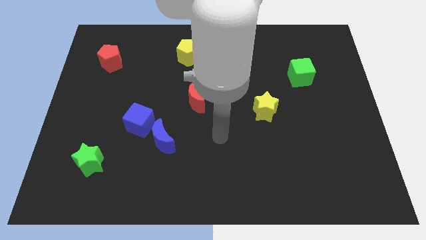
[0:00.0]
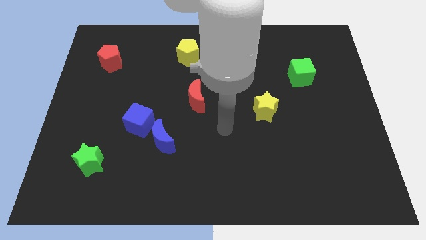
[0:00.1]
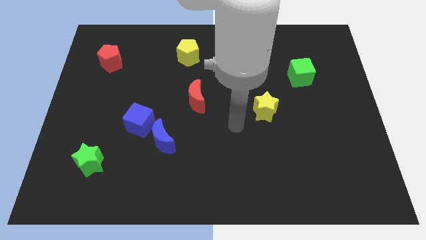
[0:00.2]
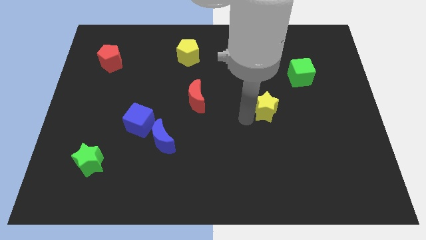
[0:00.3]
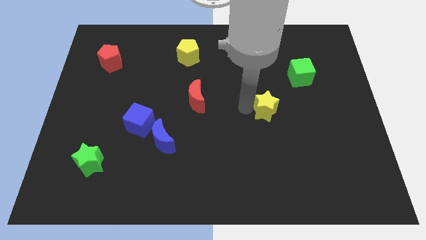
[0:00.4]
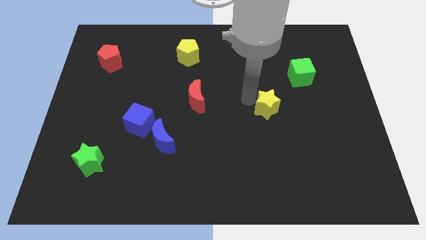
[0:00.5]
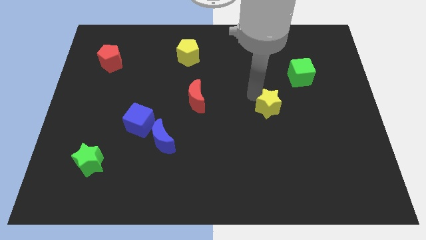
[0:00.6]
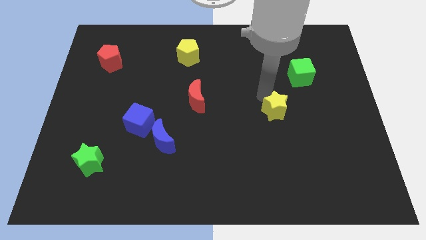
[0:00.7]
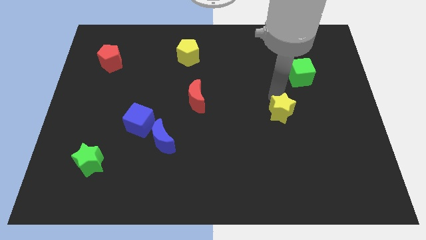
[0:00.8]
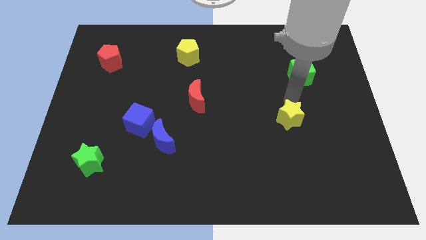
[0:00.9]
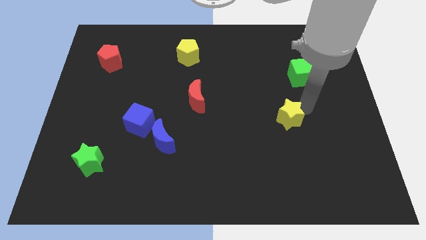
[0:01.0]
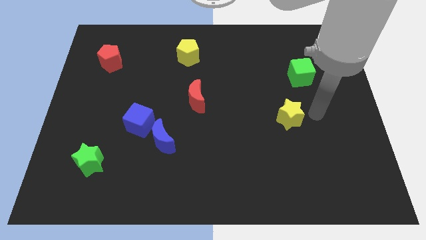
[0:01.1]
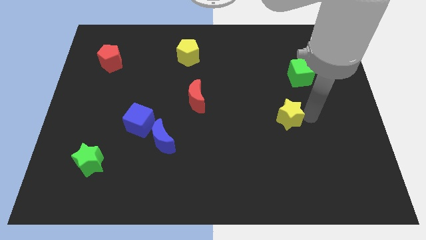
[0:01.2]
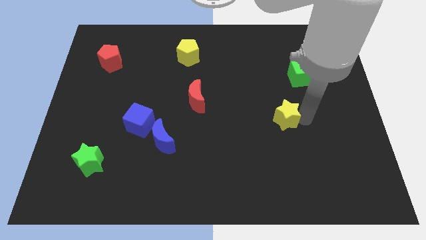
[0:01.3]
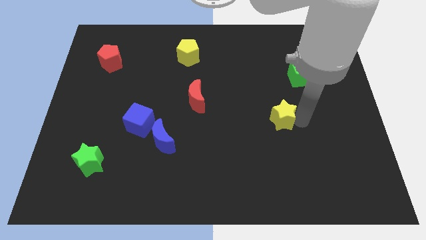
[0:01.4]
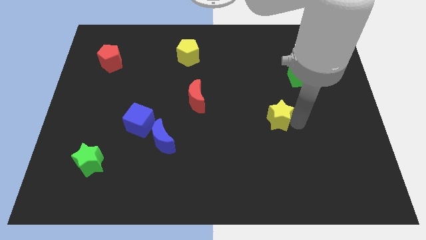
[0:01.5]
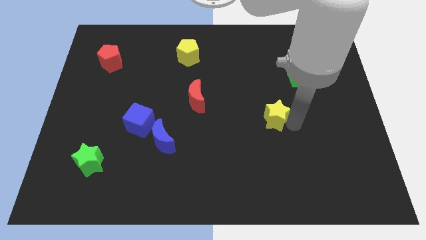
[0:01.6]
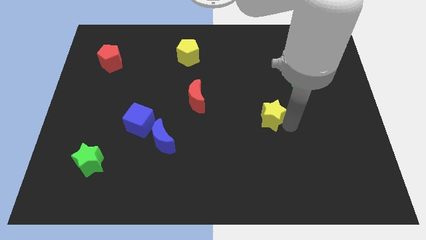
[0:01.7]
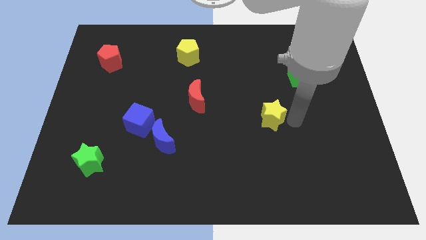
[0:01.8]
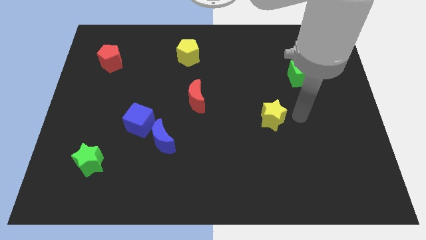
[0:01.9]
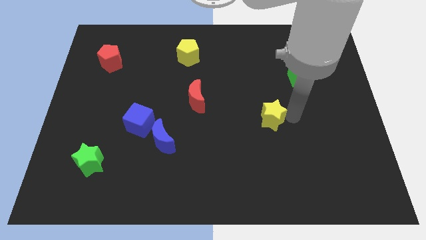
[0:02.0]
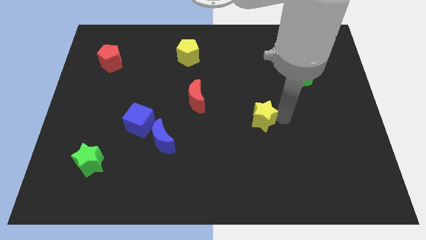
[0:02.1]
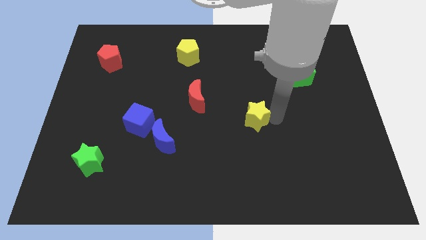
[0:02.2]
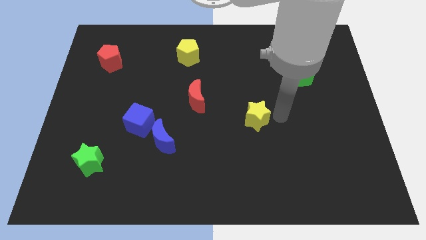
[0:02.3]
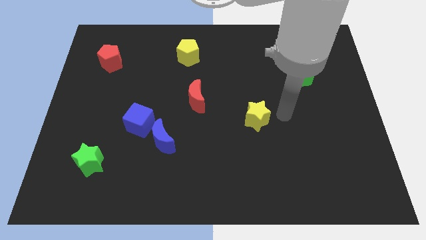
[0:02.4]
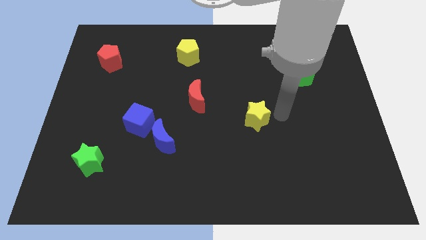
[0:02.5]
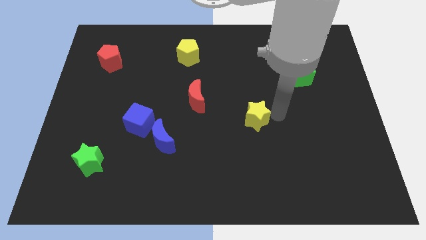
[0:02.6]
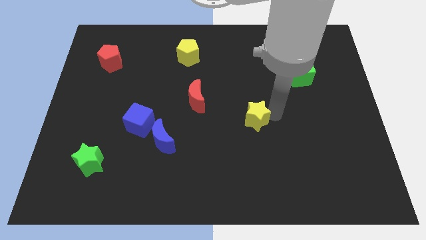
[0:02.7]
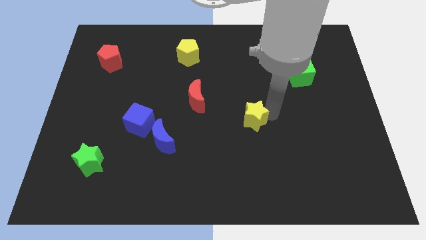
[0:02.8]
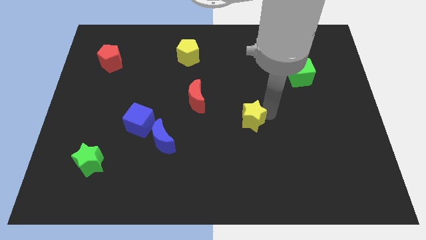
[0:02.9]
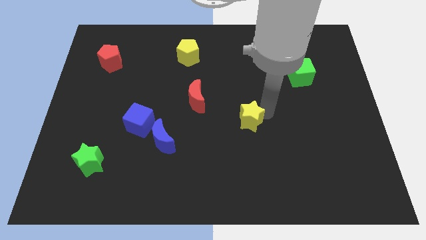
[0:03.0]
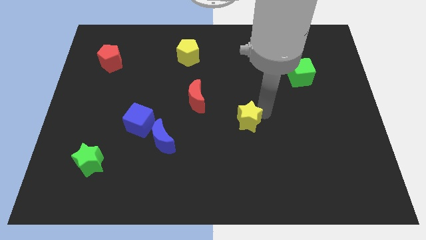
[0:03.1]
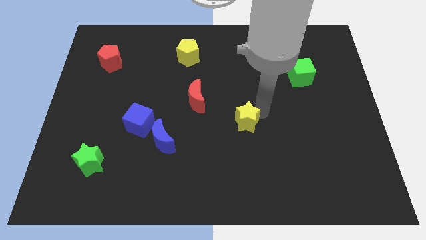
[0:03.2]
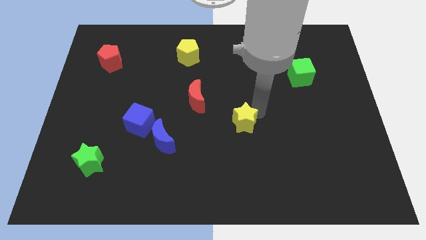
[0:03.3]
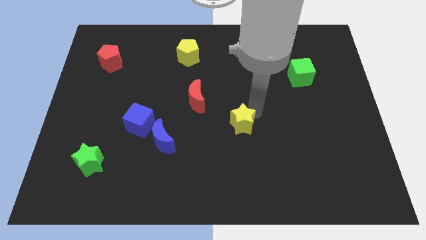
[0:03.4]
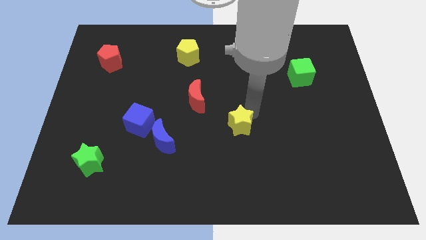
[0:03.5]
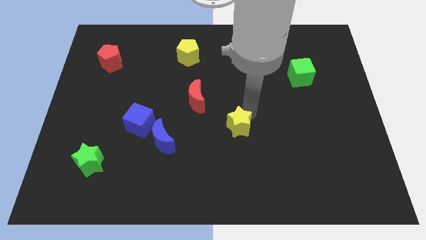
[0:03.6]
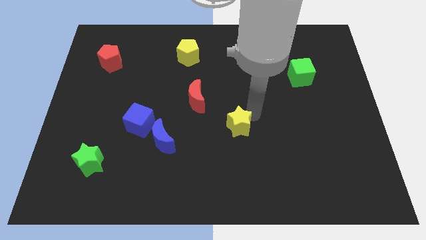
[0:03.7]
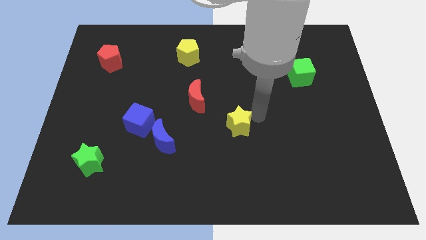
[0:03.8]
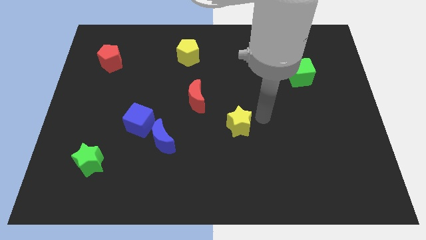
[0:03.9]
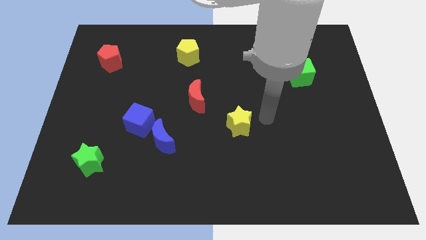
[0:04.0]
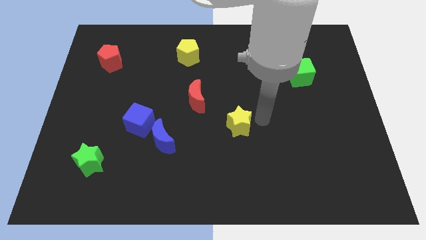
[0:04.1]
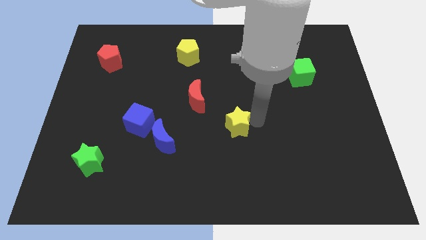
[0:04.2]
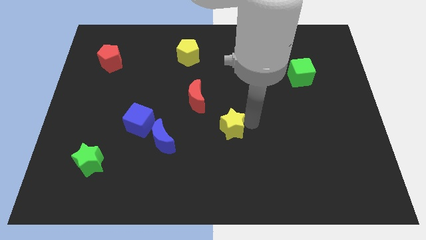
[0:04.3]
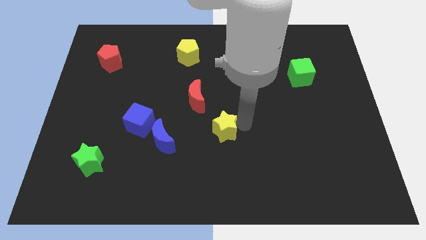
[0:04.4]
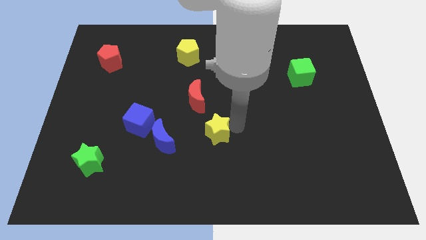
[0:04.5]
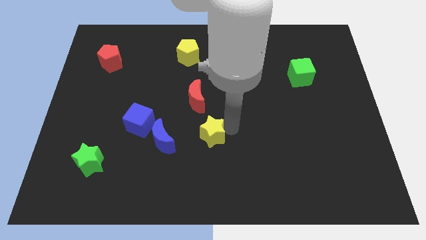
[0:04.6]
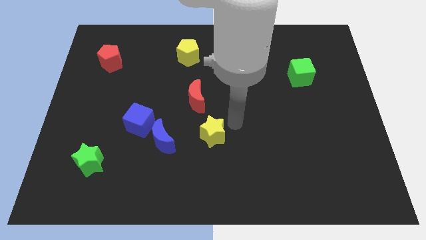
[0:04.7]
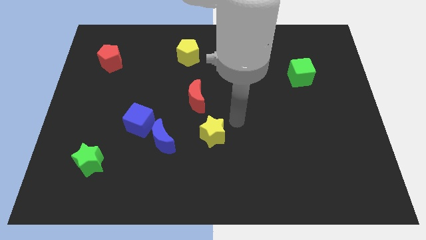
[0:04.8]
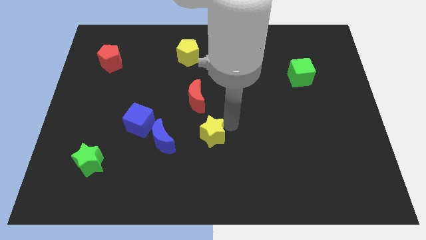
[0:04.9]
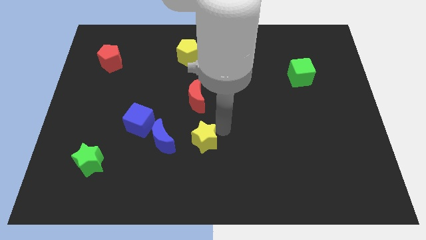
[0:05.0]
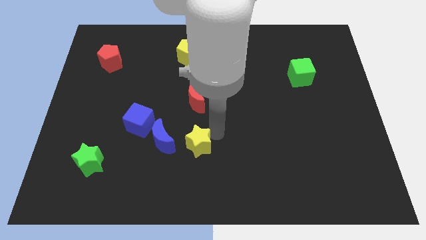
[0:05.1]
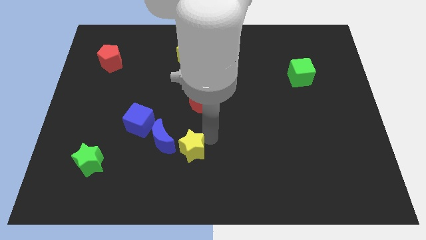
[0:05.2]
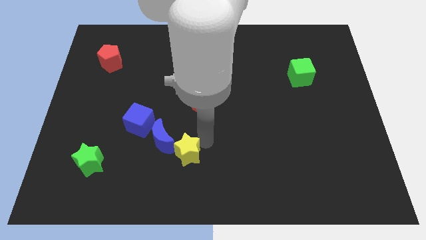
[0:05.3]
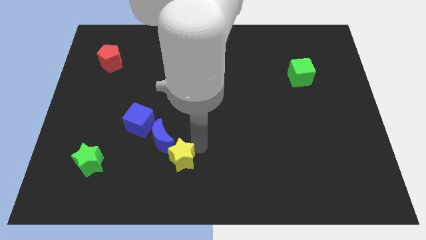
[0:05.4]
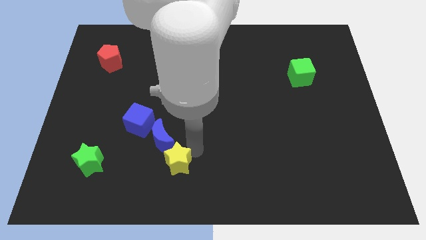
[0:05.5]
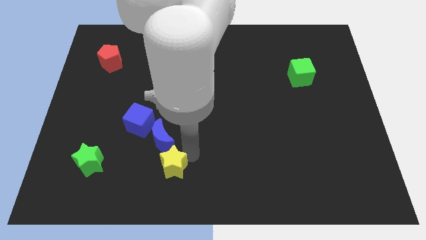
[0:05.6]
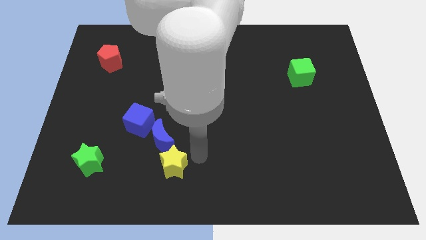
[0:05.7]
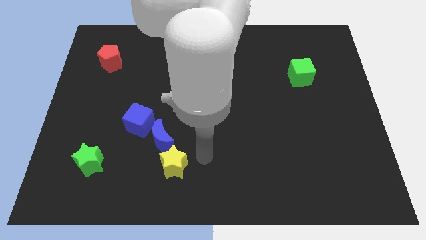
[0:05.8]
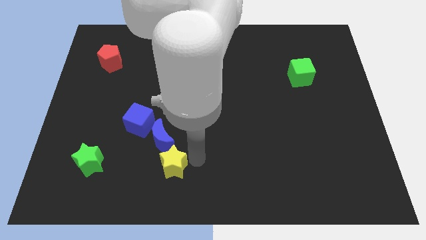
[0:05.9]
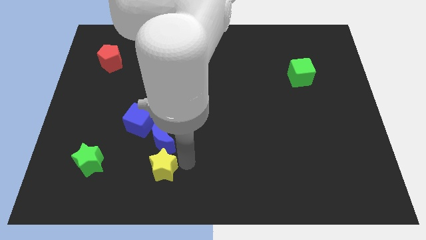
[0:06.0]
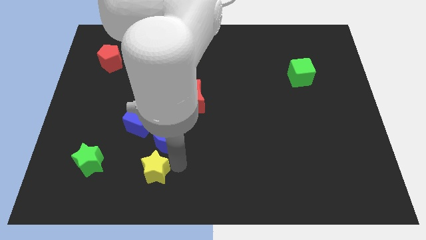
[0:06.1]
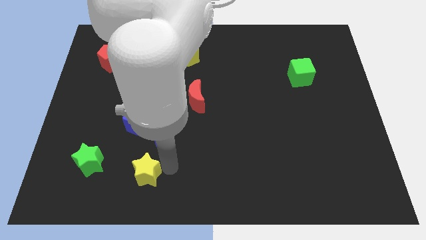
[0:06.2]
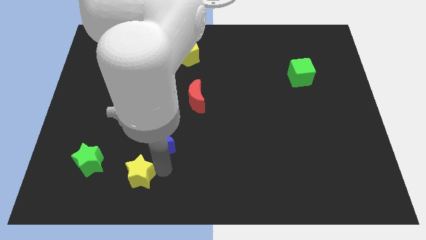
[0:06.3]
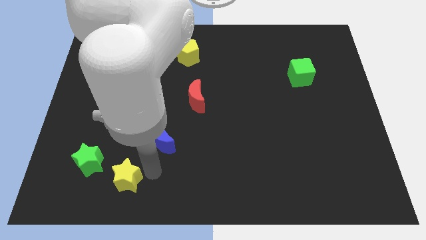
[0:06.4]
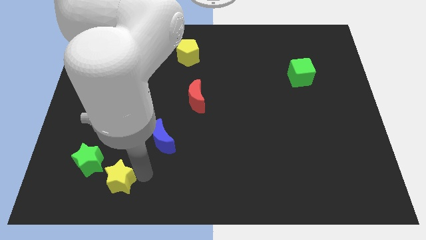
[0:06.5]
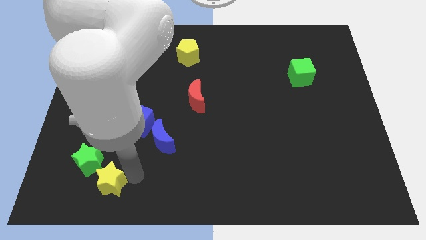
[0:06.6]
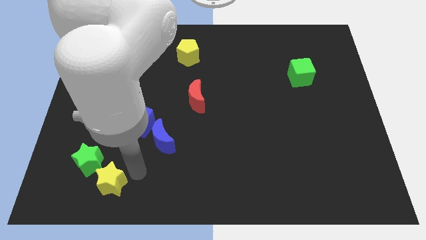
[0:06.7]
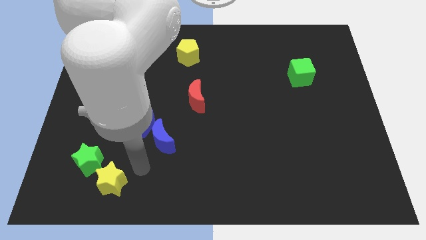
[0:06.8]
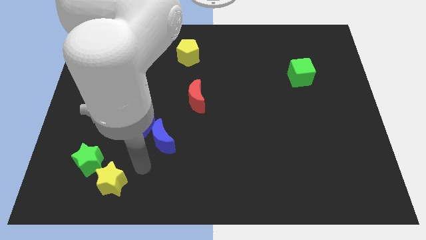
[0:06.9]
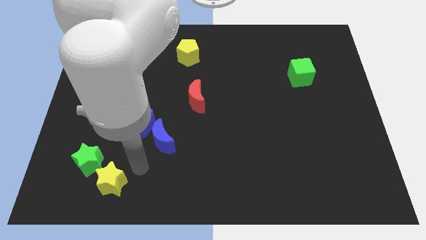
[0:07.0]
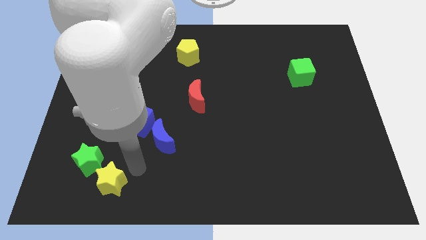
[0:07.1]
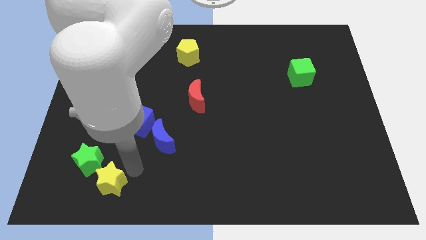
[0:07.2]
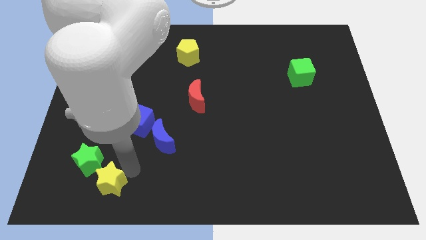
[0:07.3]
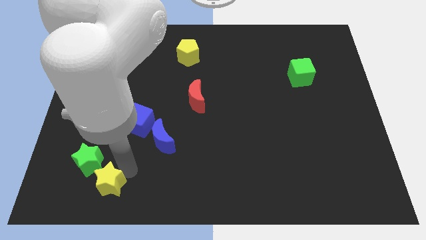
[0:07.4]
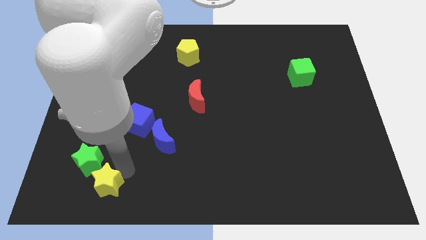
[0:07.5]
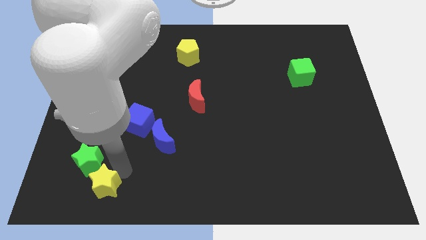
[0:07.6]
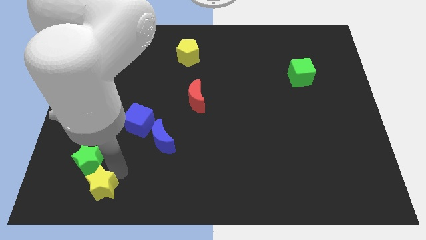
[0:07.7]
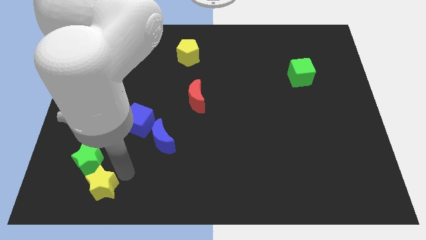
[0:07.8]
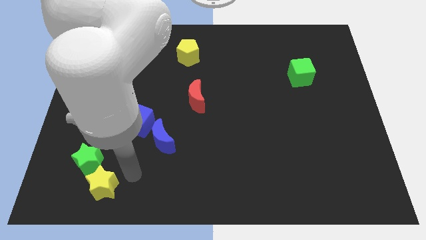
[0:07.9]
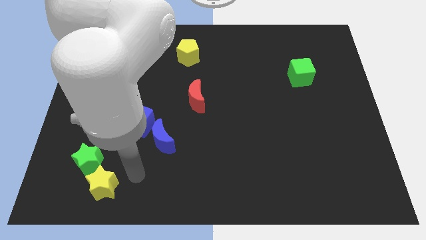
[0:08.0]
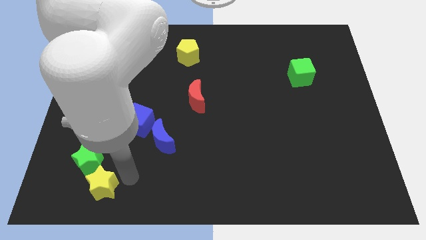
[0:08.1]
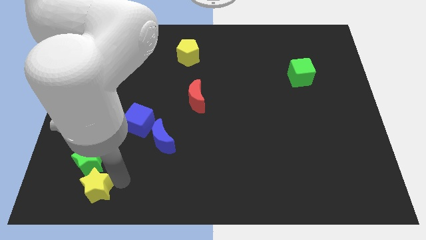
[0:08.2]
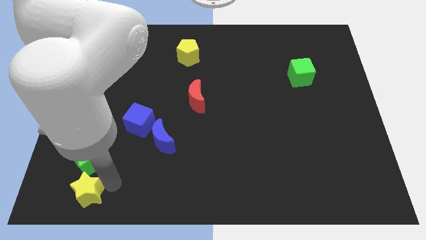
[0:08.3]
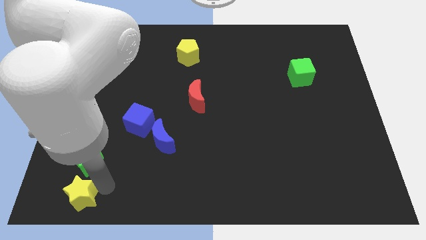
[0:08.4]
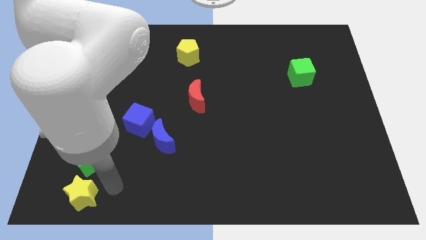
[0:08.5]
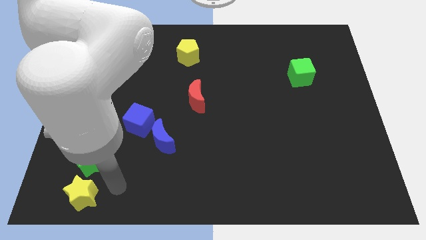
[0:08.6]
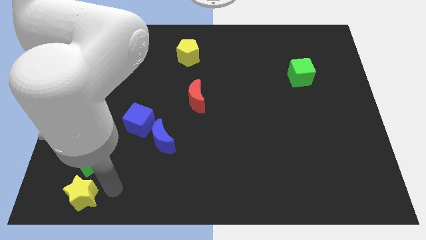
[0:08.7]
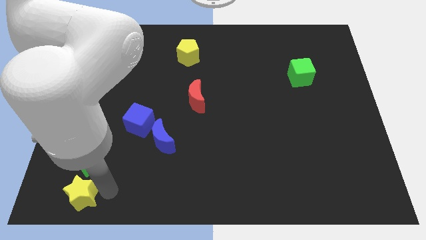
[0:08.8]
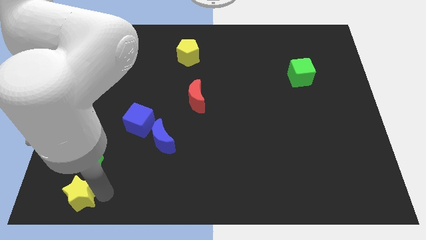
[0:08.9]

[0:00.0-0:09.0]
move the yellow star to the bottom left corner
